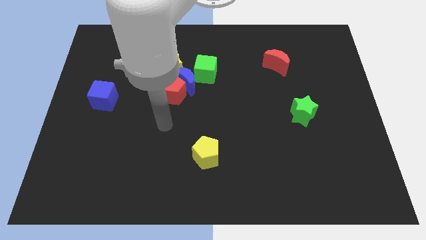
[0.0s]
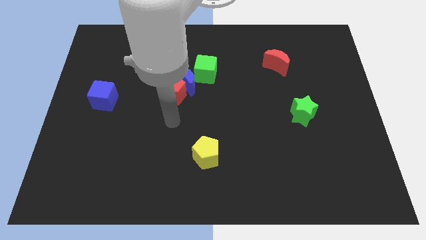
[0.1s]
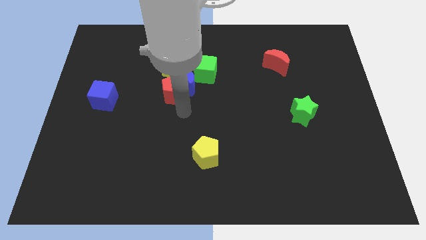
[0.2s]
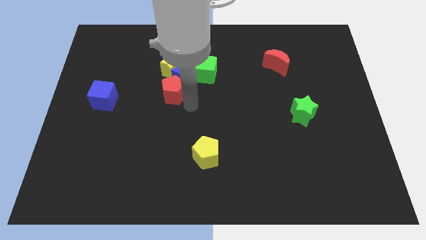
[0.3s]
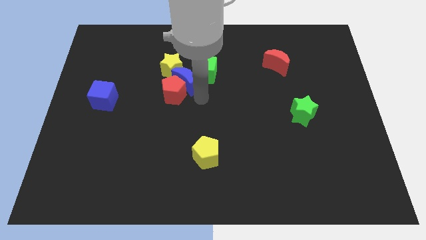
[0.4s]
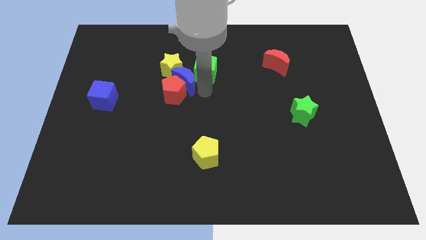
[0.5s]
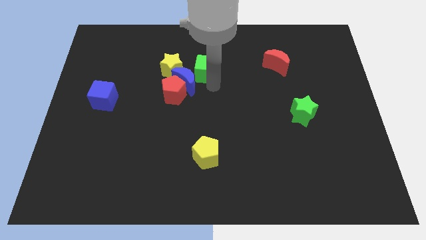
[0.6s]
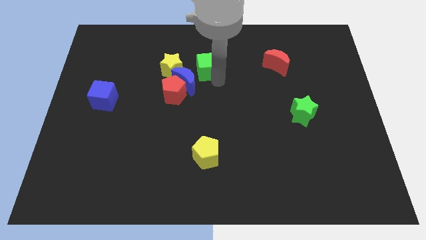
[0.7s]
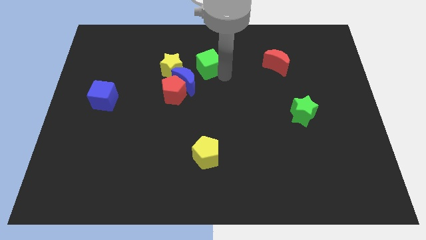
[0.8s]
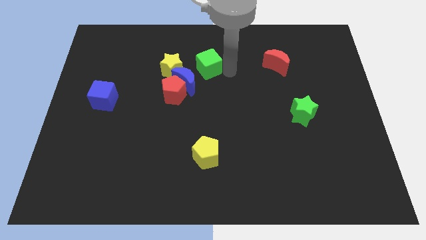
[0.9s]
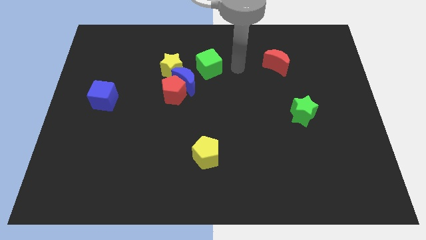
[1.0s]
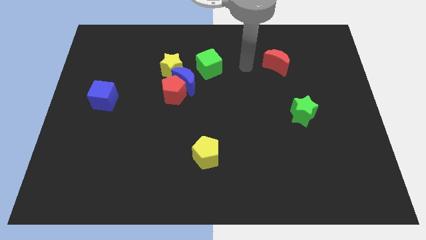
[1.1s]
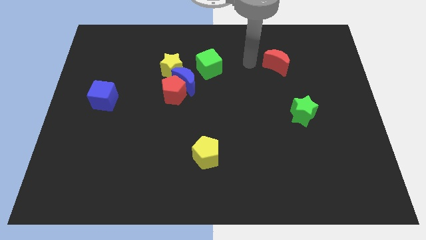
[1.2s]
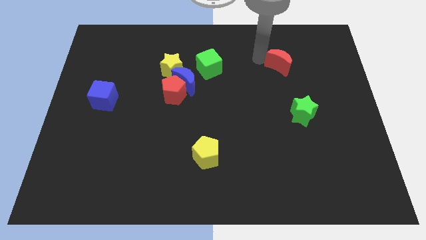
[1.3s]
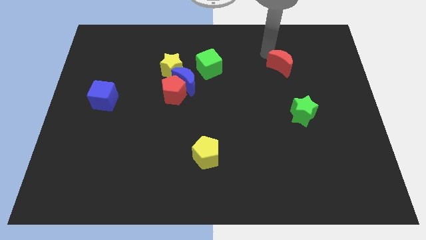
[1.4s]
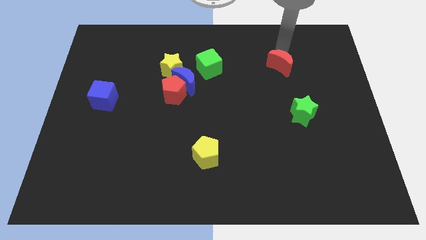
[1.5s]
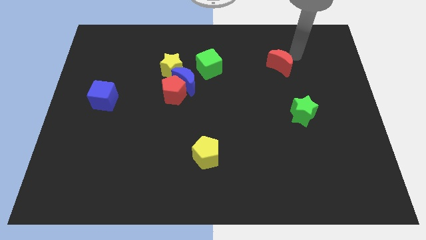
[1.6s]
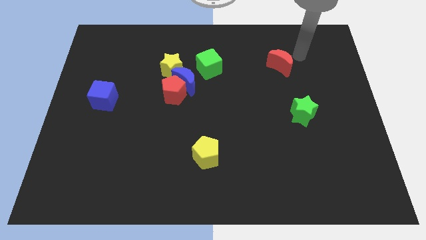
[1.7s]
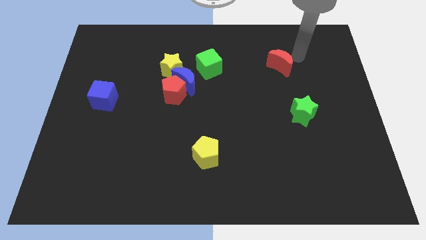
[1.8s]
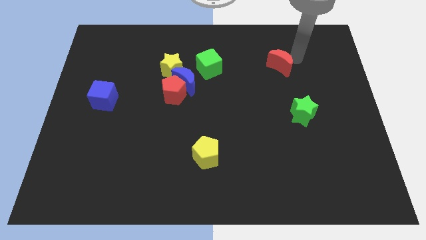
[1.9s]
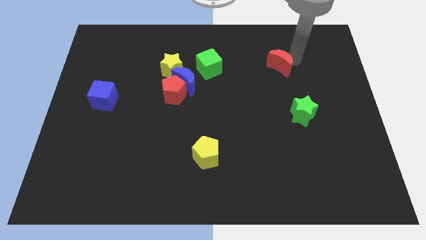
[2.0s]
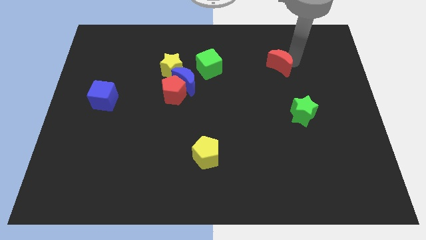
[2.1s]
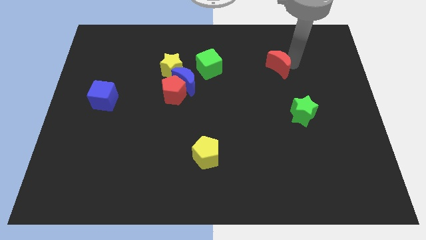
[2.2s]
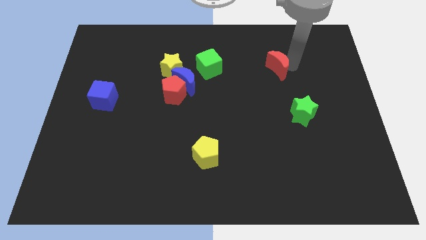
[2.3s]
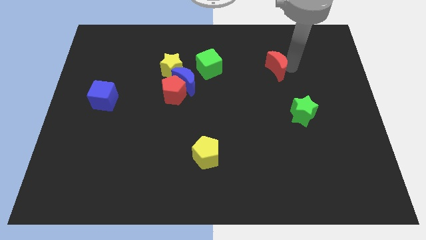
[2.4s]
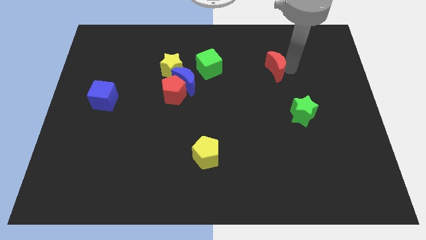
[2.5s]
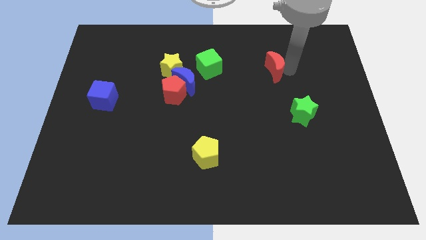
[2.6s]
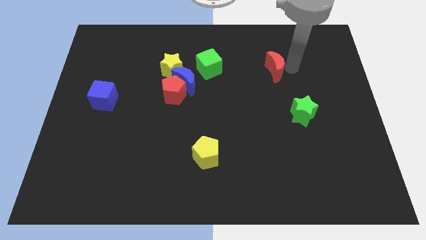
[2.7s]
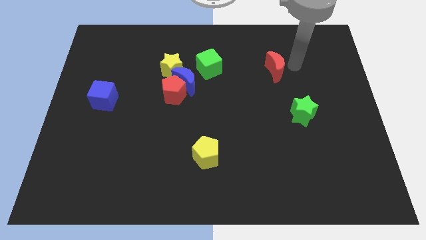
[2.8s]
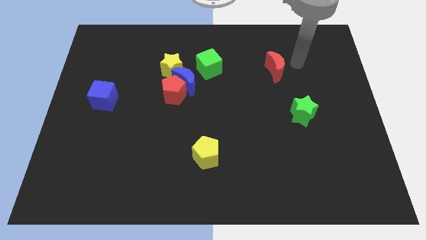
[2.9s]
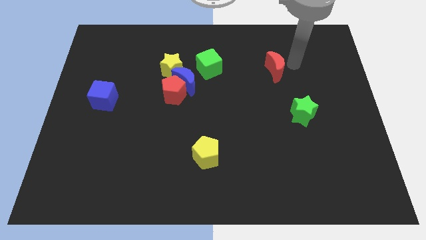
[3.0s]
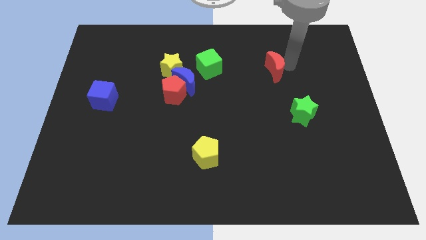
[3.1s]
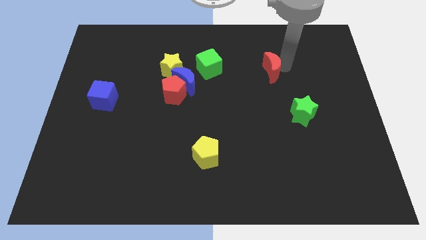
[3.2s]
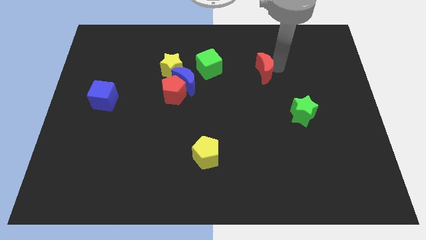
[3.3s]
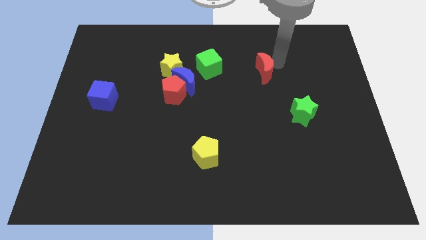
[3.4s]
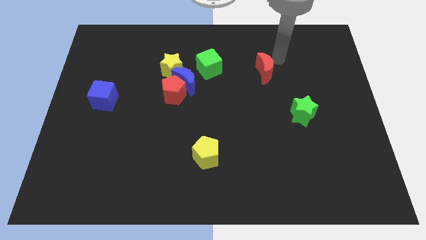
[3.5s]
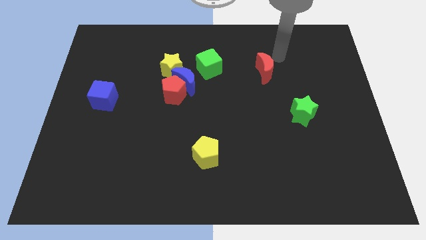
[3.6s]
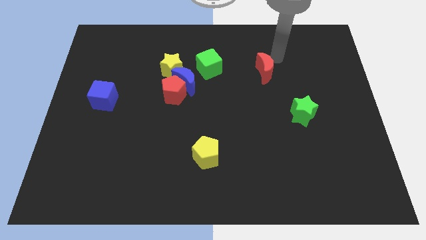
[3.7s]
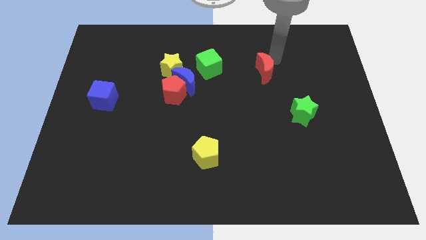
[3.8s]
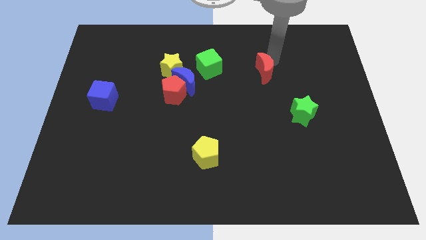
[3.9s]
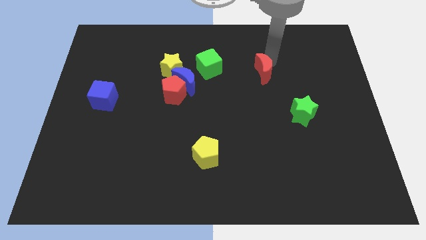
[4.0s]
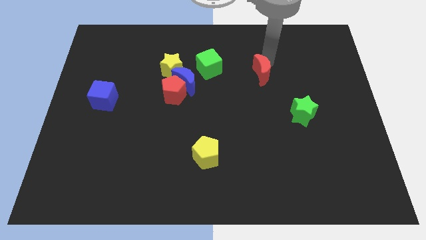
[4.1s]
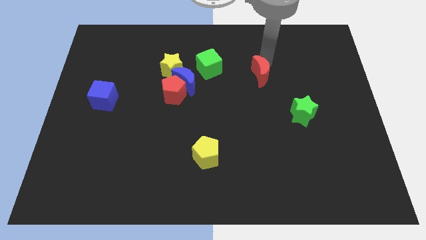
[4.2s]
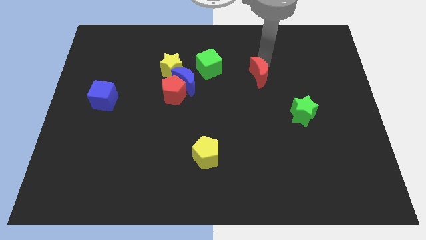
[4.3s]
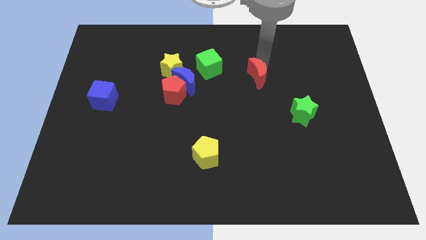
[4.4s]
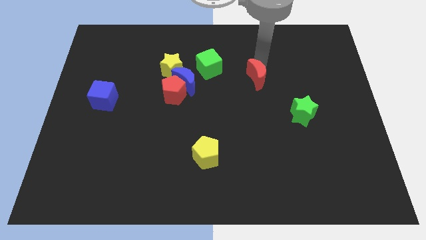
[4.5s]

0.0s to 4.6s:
slightly slide the red moon downwards and then left

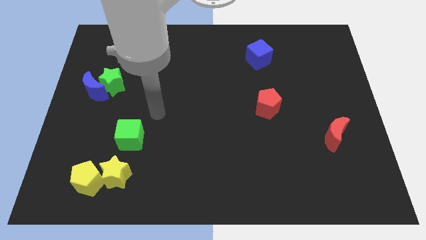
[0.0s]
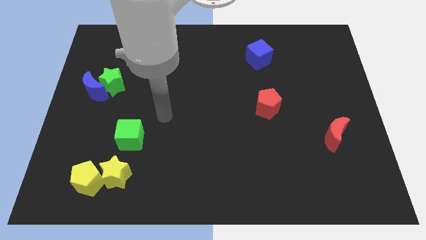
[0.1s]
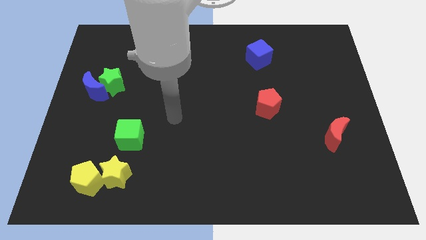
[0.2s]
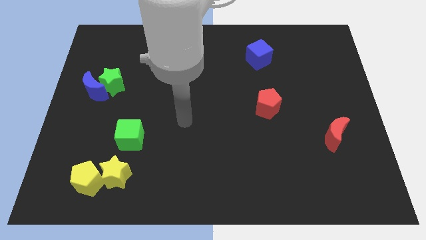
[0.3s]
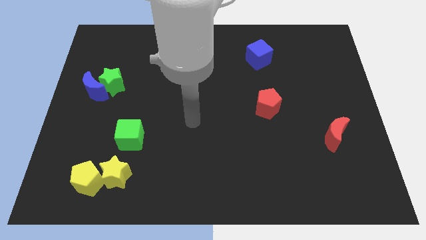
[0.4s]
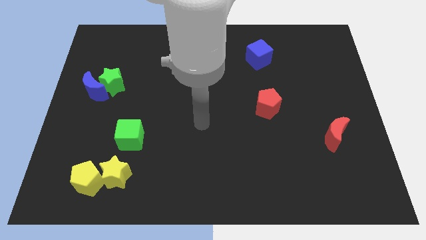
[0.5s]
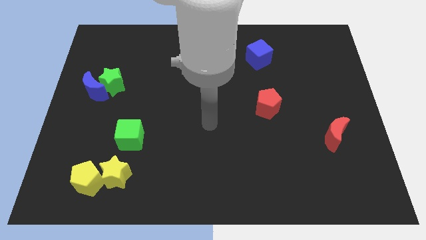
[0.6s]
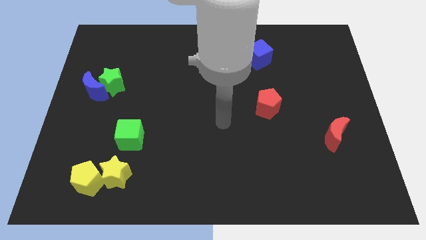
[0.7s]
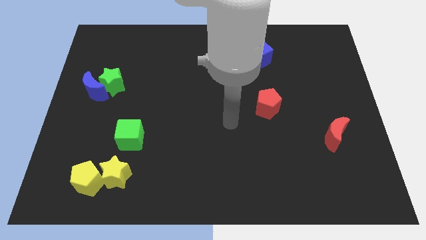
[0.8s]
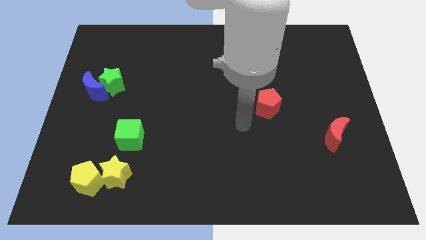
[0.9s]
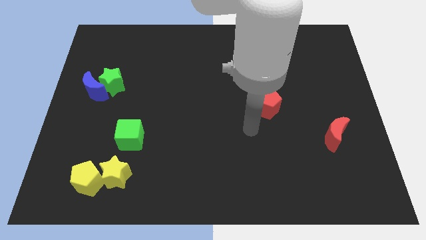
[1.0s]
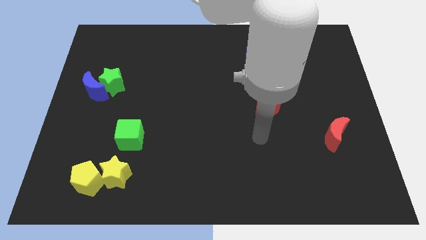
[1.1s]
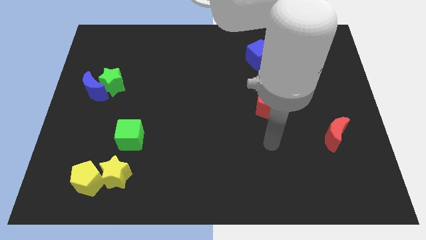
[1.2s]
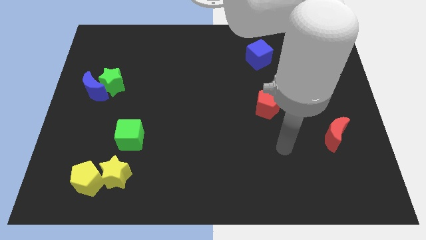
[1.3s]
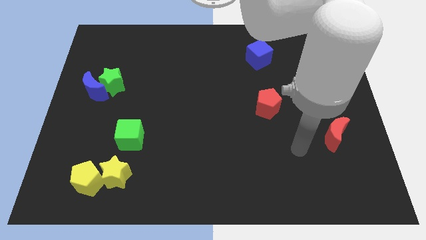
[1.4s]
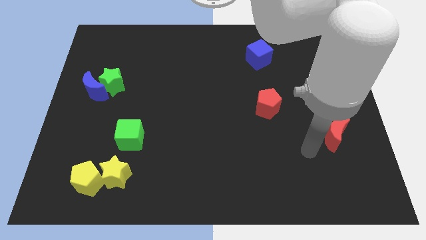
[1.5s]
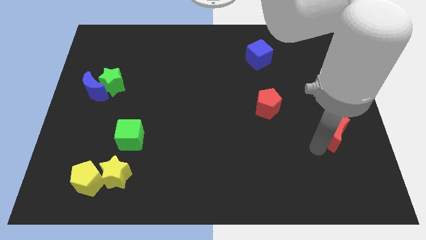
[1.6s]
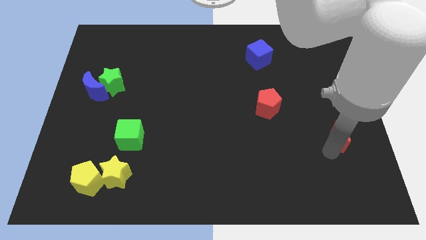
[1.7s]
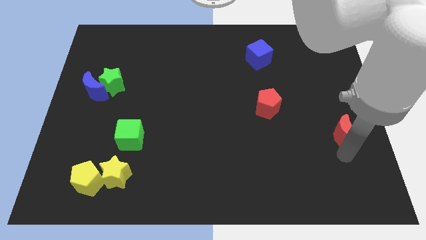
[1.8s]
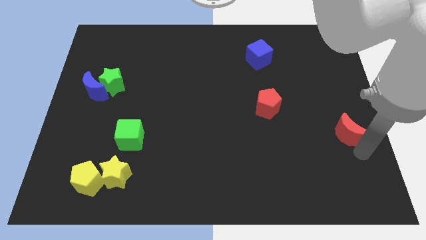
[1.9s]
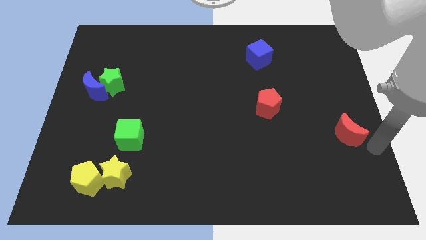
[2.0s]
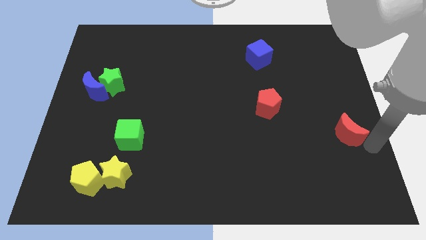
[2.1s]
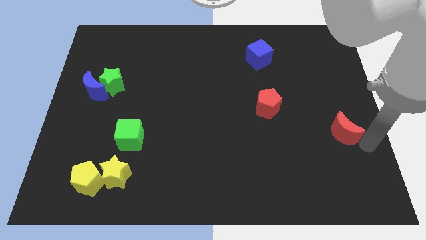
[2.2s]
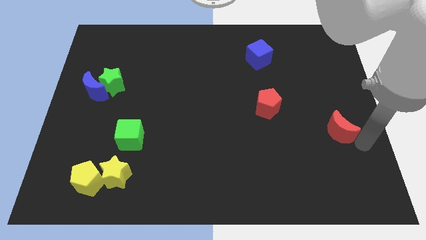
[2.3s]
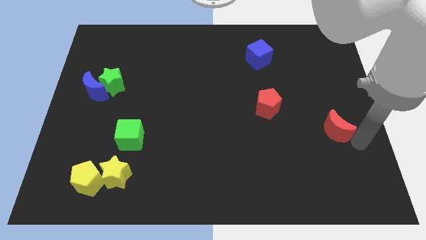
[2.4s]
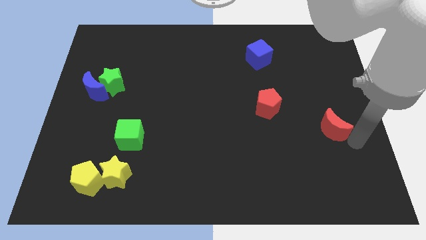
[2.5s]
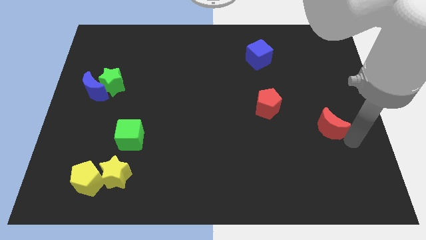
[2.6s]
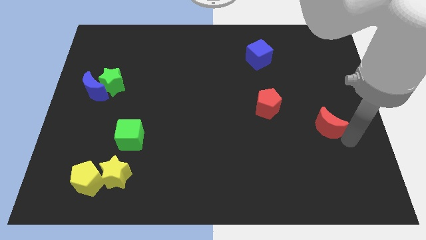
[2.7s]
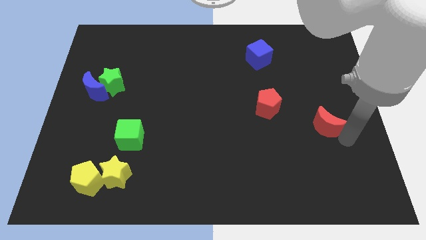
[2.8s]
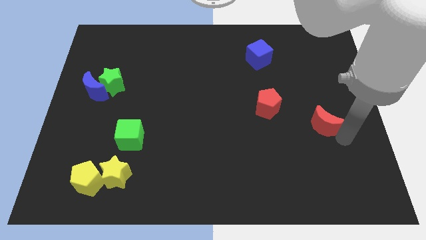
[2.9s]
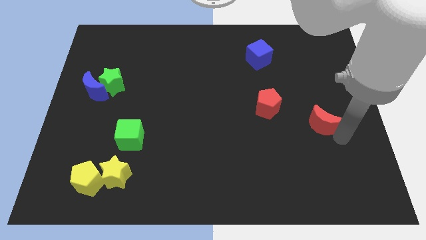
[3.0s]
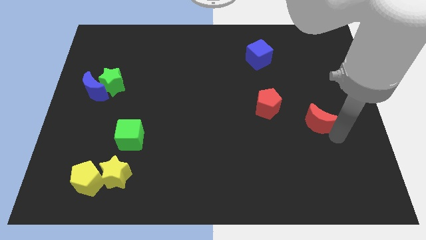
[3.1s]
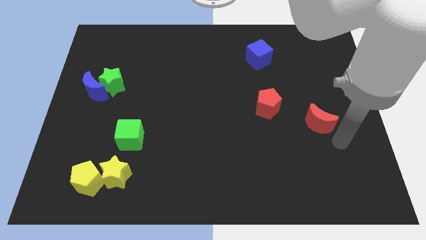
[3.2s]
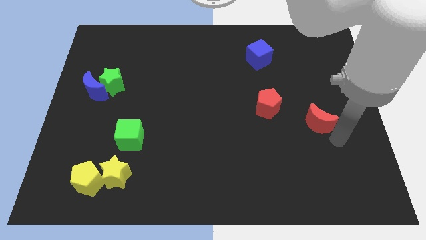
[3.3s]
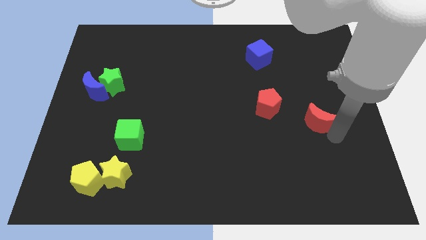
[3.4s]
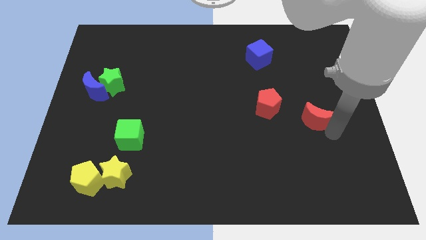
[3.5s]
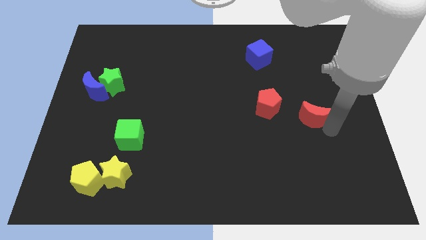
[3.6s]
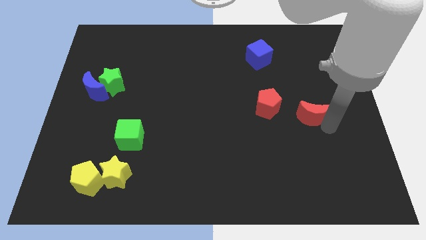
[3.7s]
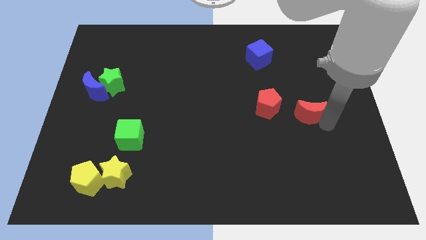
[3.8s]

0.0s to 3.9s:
move the red moon upwards and to the left diagonally slightly
